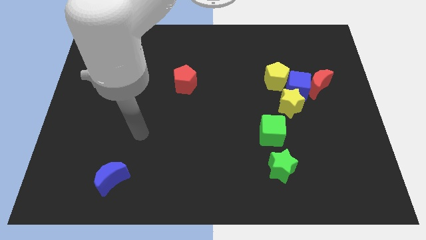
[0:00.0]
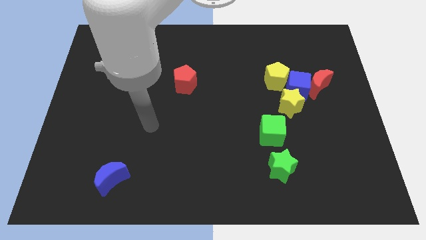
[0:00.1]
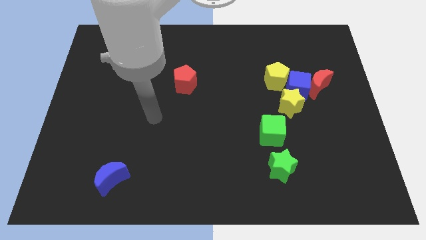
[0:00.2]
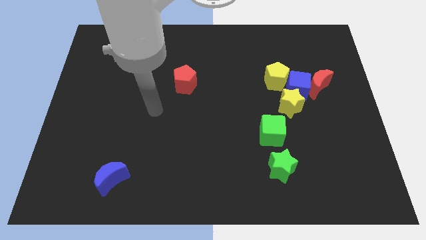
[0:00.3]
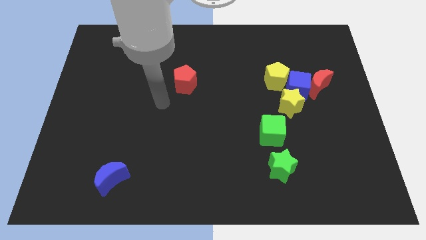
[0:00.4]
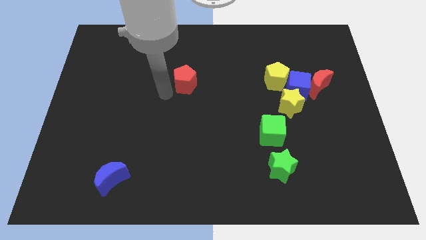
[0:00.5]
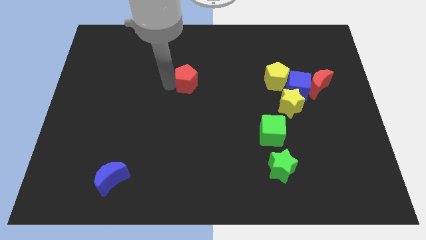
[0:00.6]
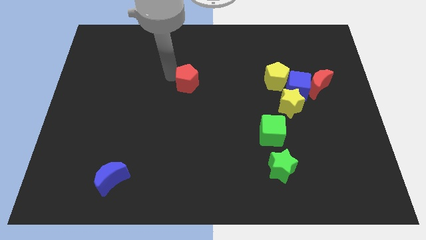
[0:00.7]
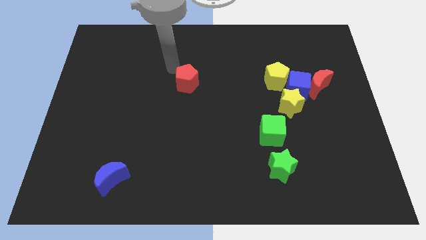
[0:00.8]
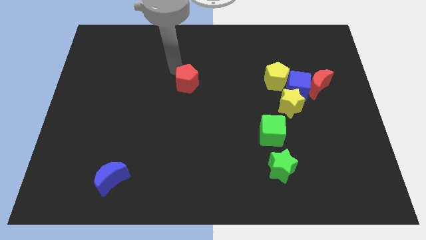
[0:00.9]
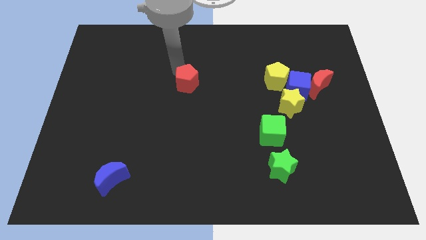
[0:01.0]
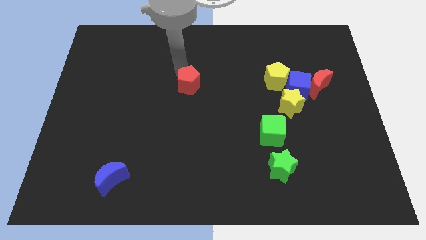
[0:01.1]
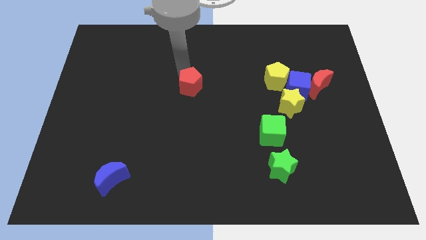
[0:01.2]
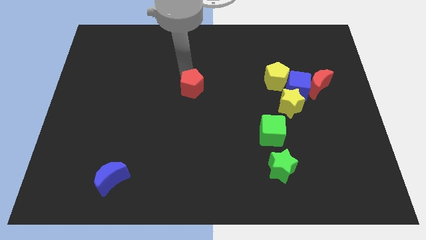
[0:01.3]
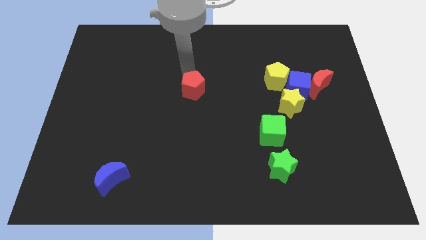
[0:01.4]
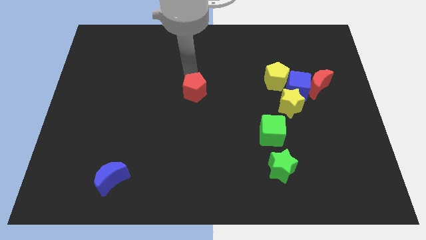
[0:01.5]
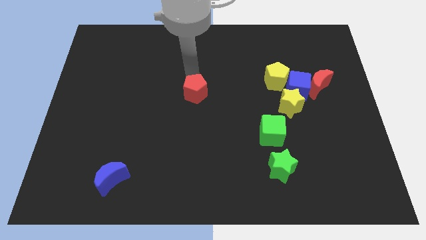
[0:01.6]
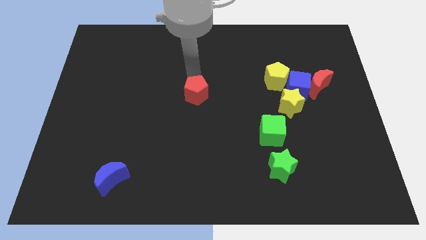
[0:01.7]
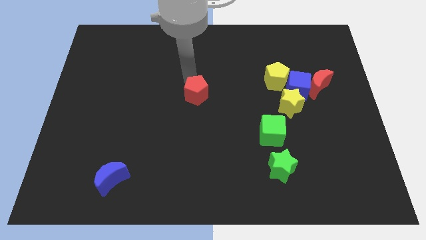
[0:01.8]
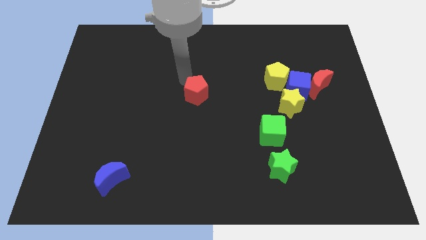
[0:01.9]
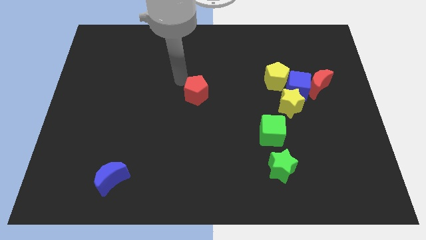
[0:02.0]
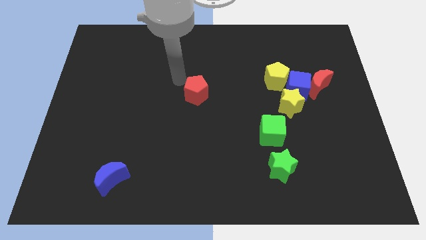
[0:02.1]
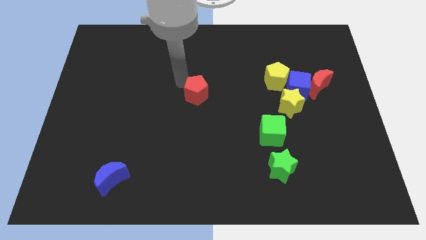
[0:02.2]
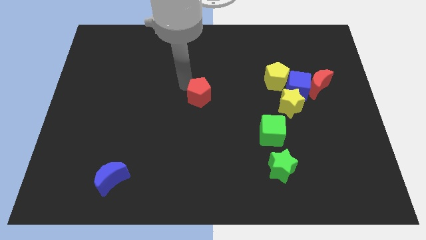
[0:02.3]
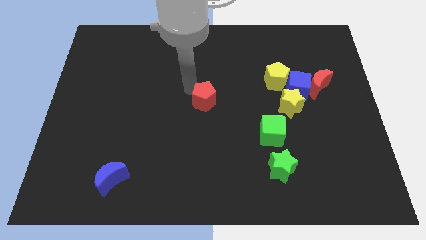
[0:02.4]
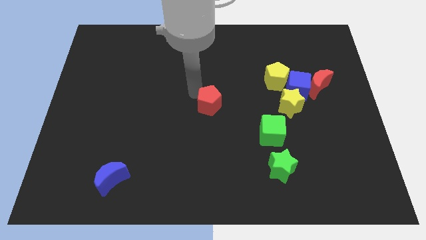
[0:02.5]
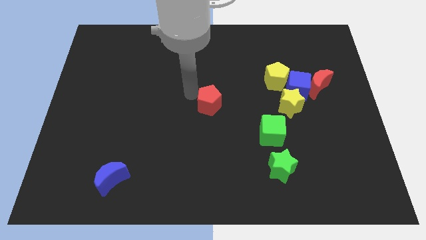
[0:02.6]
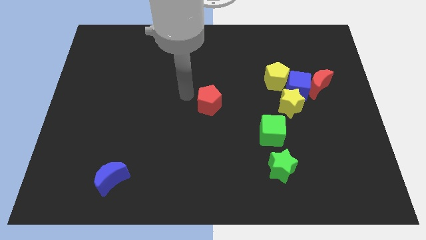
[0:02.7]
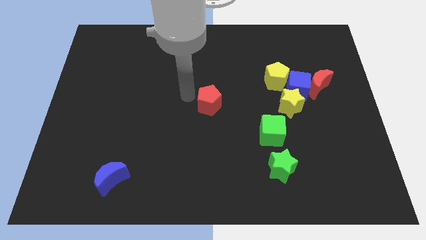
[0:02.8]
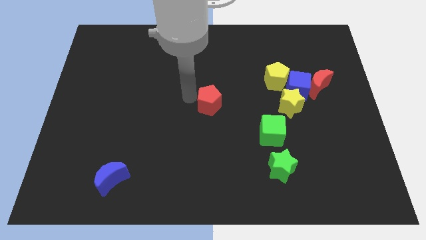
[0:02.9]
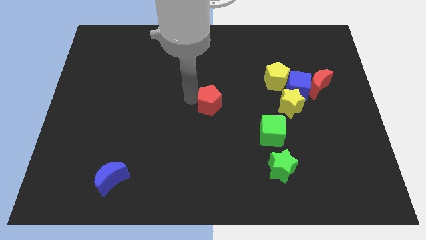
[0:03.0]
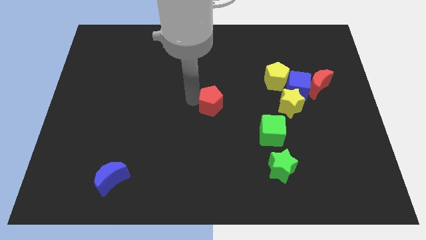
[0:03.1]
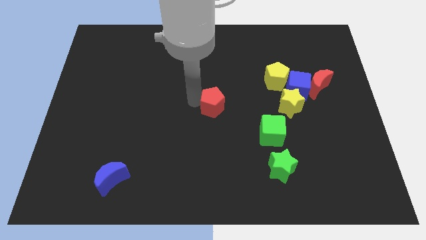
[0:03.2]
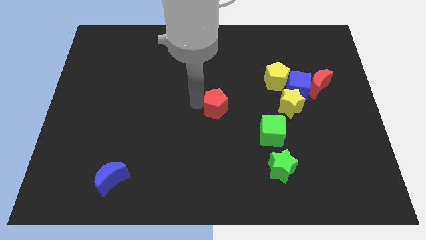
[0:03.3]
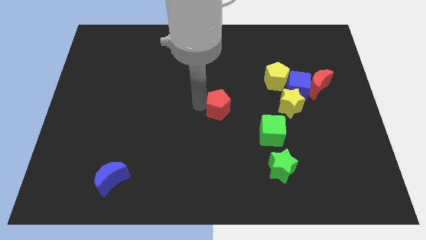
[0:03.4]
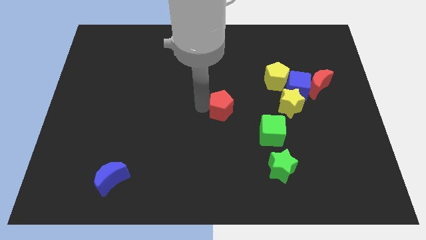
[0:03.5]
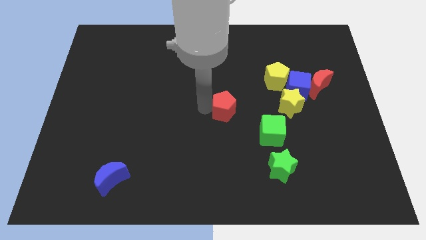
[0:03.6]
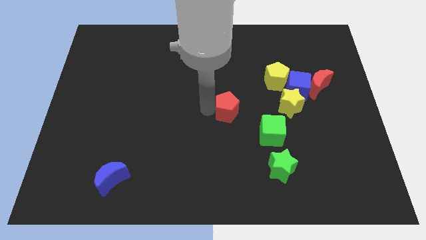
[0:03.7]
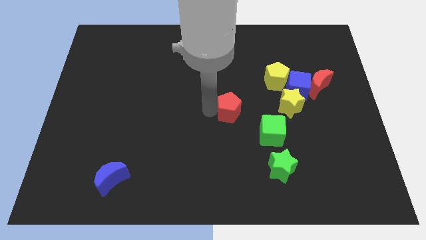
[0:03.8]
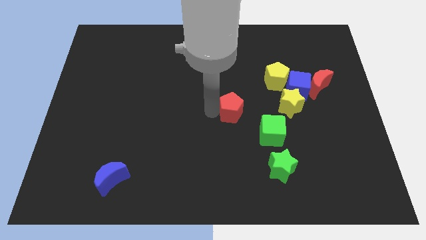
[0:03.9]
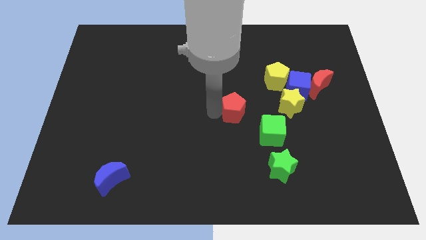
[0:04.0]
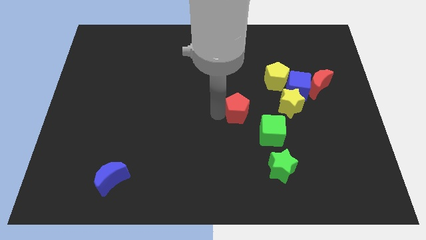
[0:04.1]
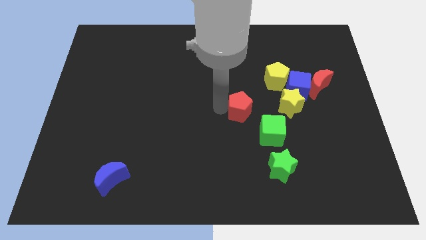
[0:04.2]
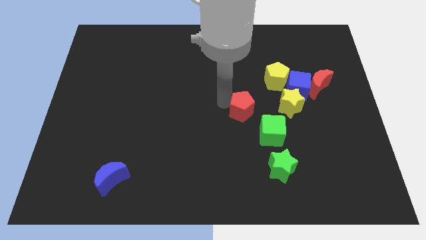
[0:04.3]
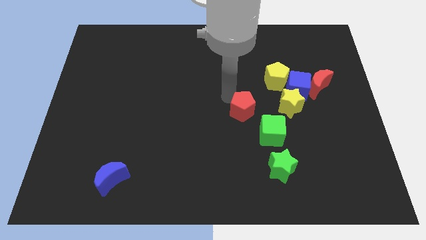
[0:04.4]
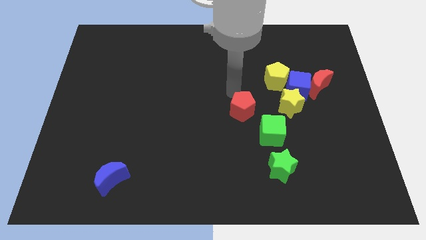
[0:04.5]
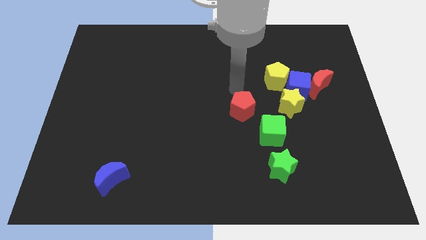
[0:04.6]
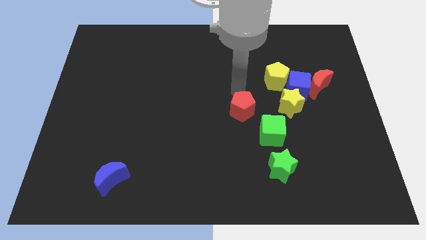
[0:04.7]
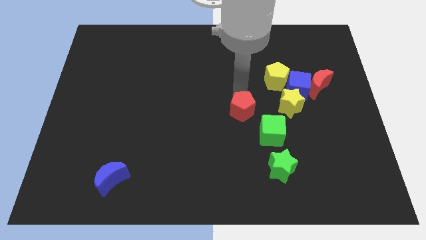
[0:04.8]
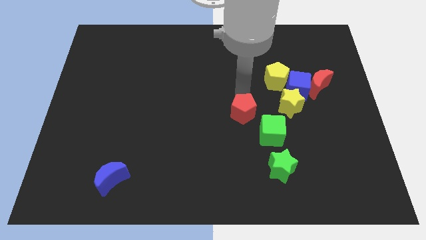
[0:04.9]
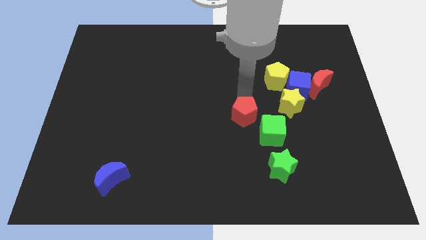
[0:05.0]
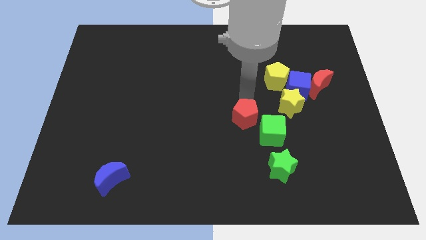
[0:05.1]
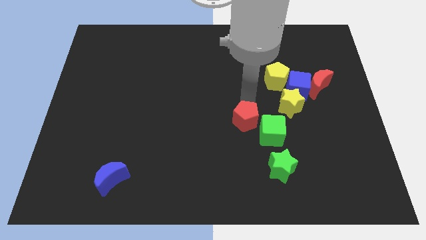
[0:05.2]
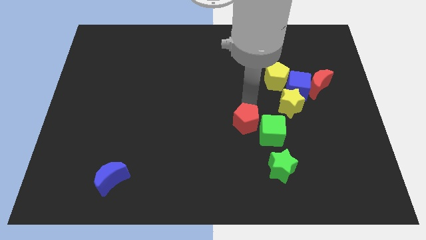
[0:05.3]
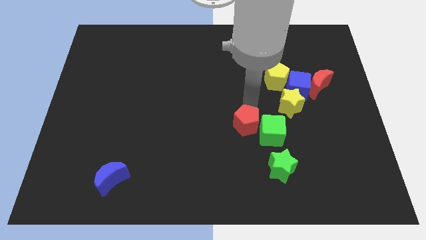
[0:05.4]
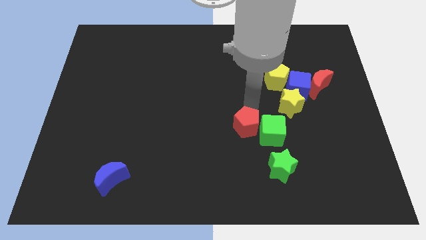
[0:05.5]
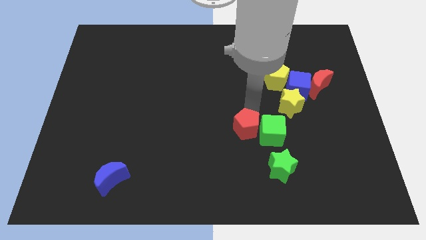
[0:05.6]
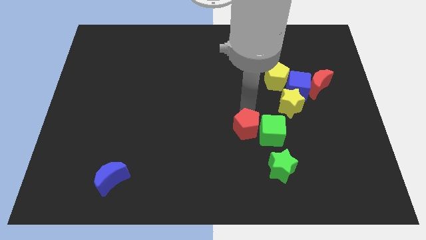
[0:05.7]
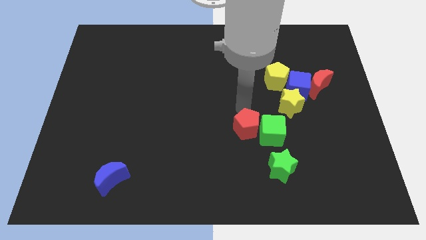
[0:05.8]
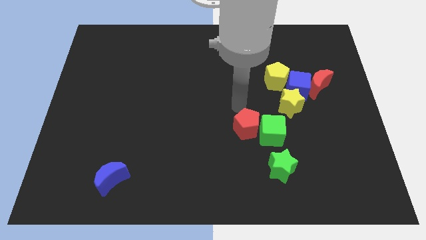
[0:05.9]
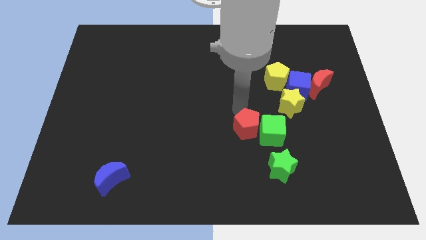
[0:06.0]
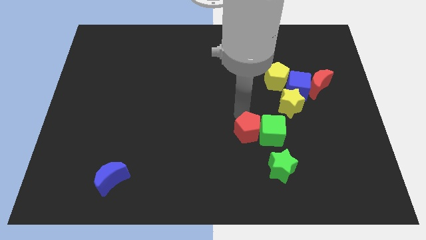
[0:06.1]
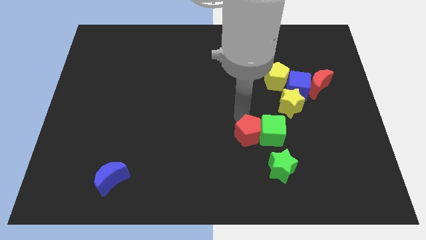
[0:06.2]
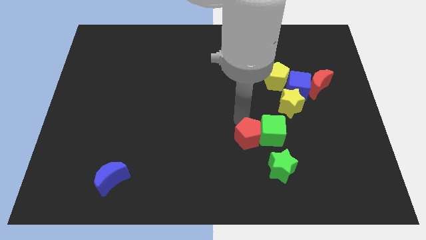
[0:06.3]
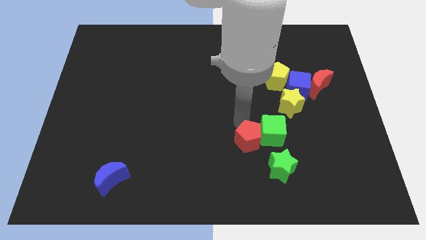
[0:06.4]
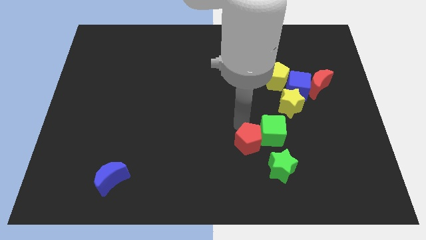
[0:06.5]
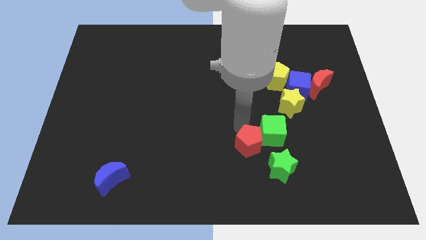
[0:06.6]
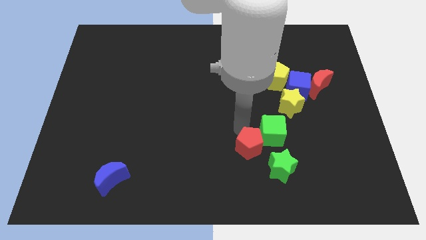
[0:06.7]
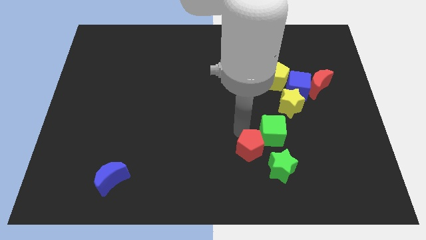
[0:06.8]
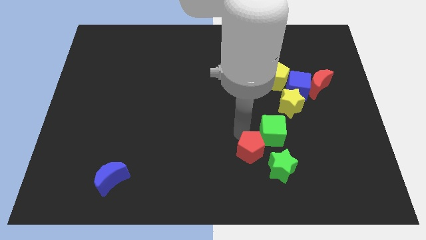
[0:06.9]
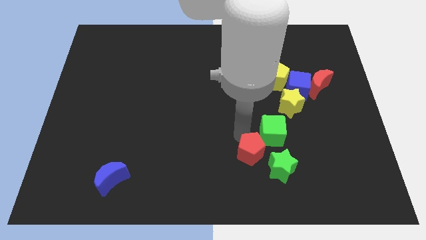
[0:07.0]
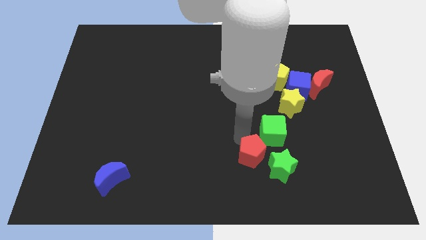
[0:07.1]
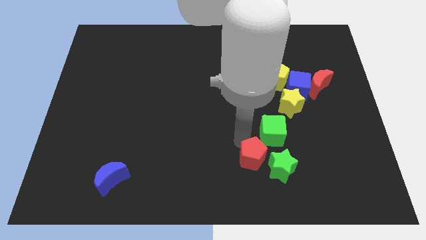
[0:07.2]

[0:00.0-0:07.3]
push the red pentagon next to the green star
